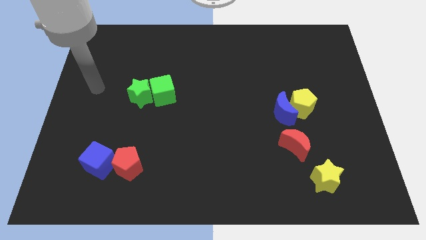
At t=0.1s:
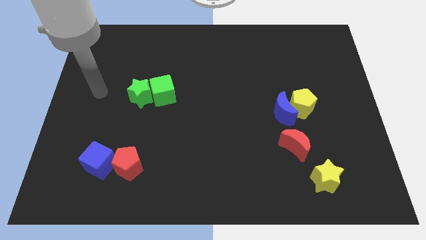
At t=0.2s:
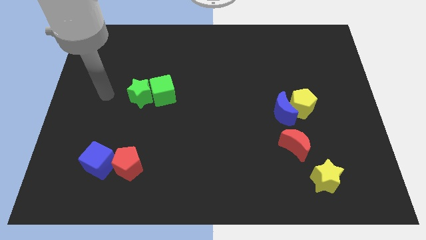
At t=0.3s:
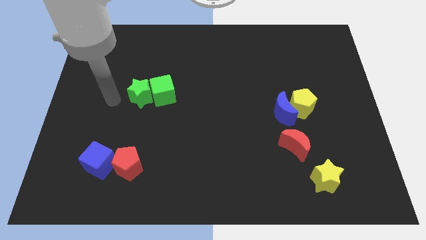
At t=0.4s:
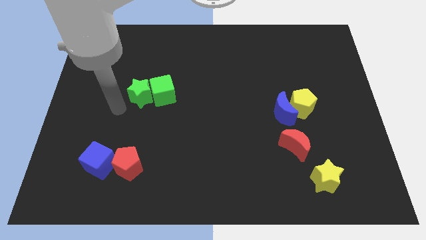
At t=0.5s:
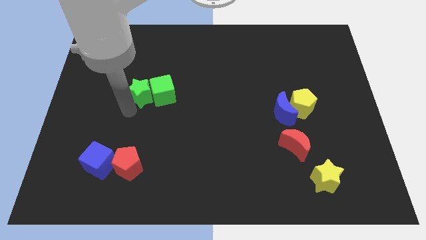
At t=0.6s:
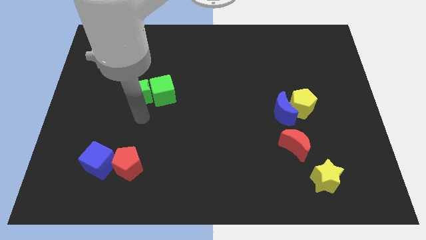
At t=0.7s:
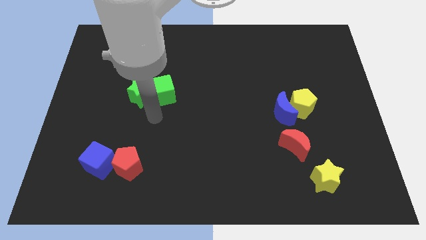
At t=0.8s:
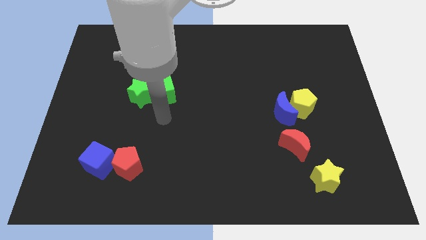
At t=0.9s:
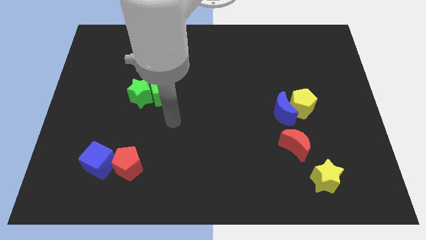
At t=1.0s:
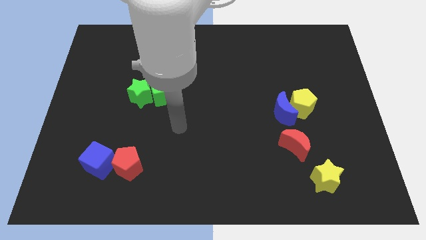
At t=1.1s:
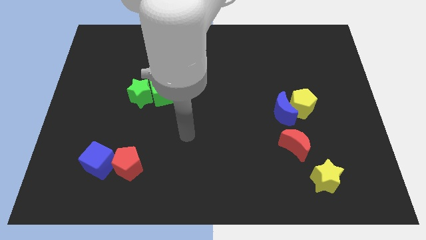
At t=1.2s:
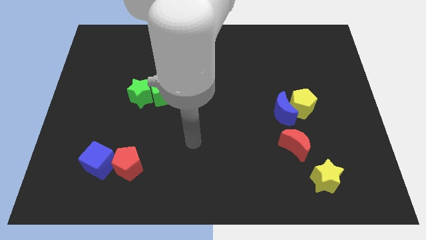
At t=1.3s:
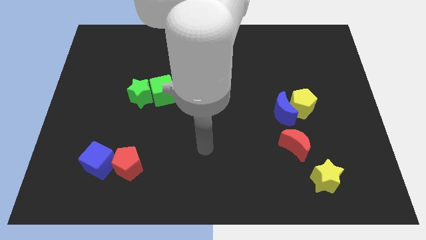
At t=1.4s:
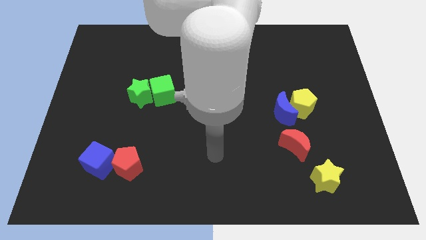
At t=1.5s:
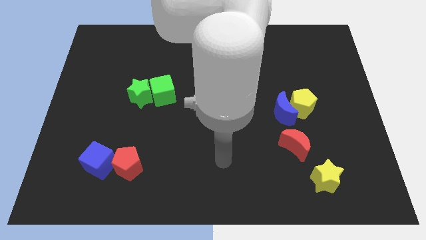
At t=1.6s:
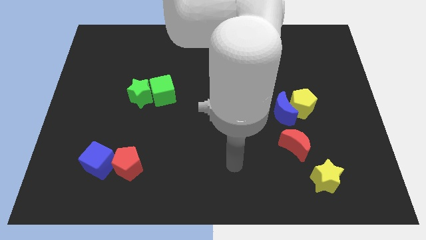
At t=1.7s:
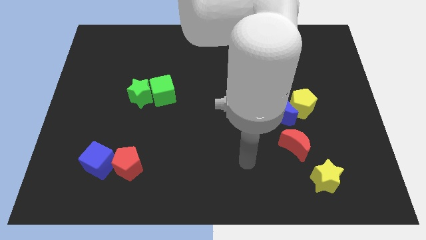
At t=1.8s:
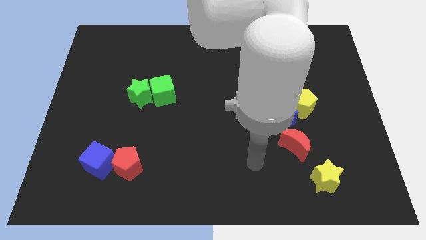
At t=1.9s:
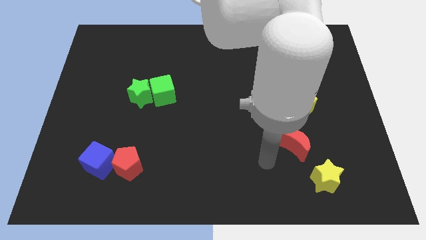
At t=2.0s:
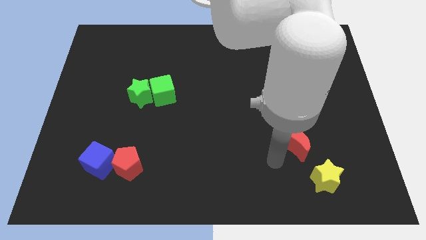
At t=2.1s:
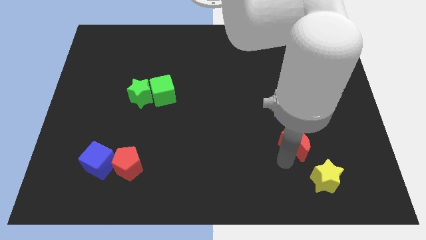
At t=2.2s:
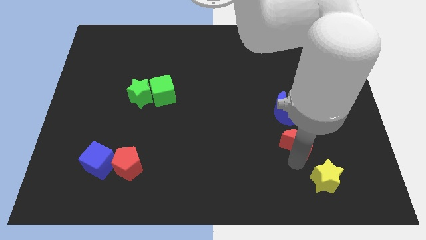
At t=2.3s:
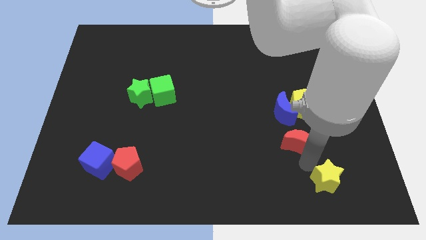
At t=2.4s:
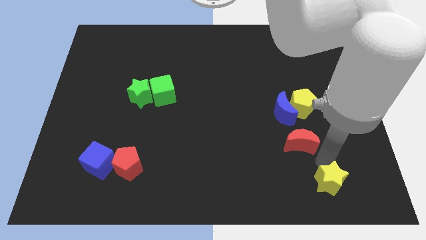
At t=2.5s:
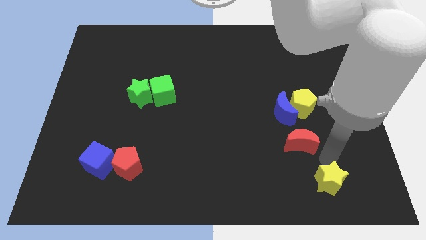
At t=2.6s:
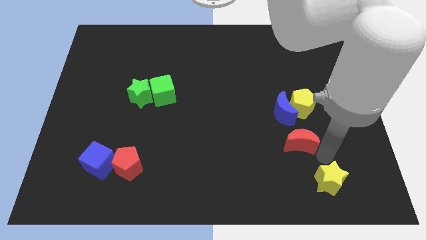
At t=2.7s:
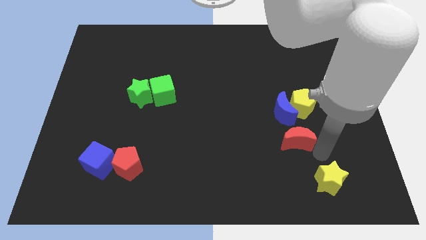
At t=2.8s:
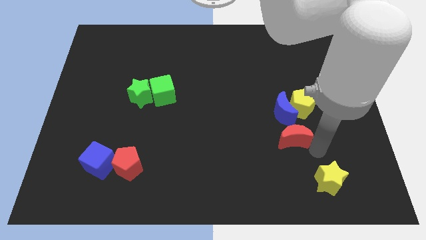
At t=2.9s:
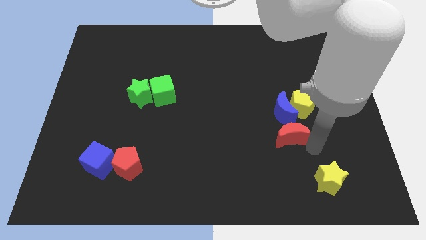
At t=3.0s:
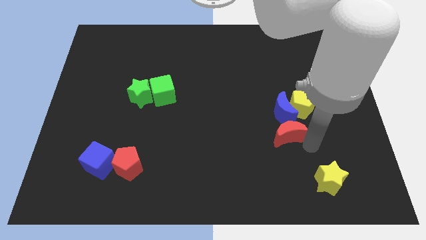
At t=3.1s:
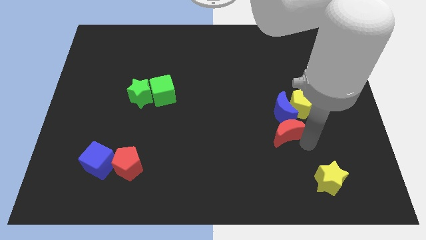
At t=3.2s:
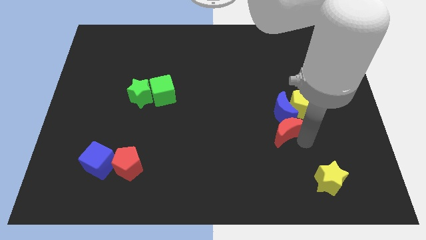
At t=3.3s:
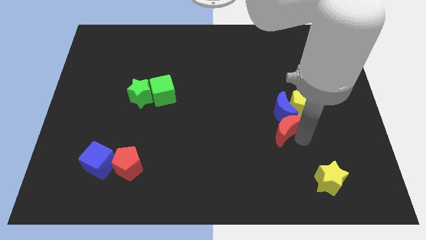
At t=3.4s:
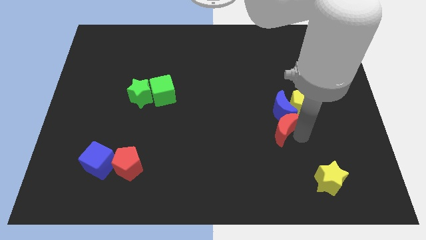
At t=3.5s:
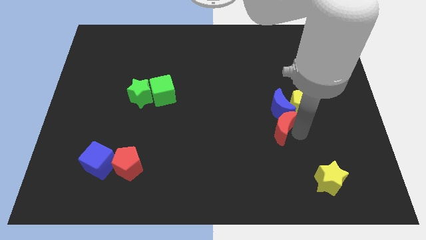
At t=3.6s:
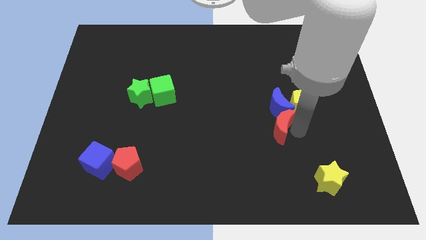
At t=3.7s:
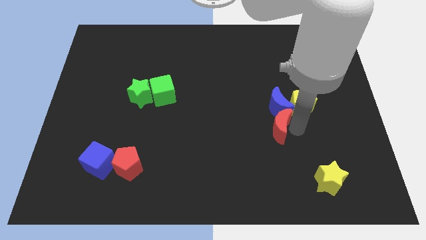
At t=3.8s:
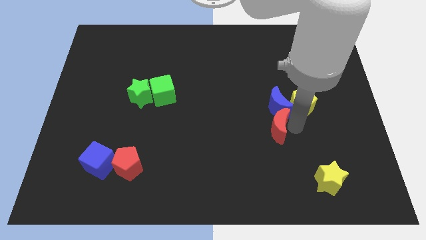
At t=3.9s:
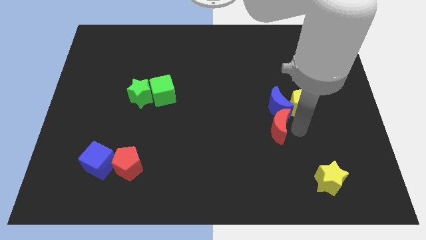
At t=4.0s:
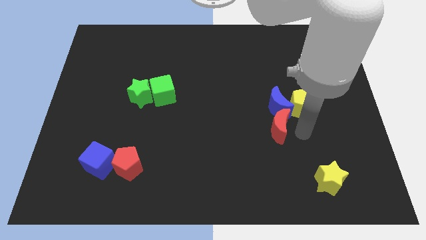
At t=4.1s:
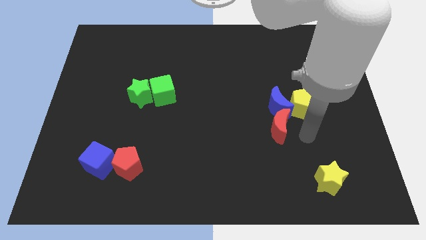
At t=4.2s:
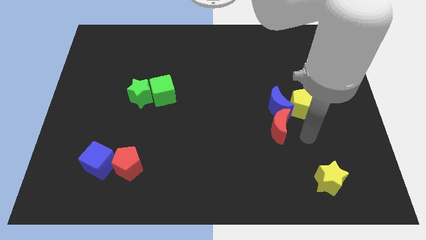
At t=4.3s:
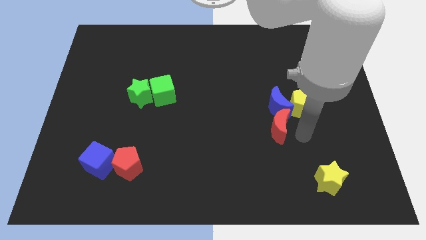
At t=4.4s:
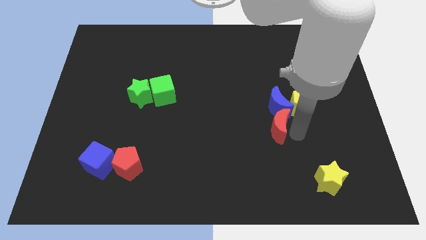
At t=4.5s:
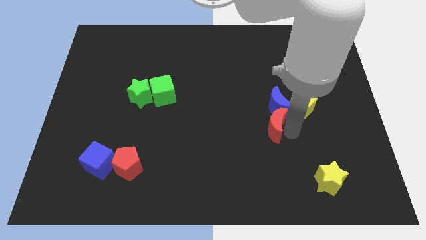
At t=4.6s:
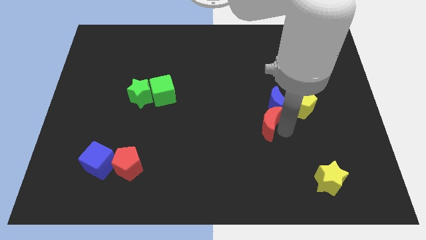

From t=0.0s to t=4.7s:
slightly push the red moon up and to the left diagonally

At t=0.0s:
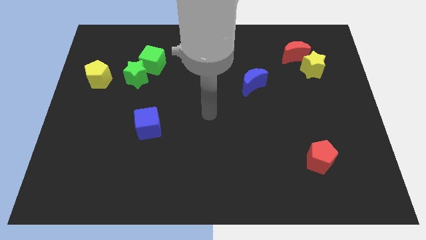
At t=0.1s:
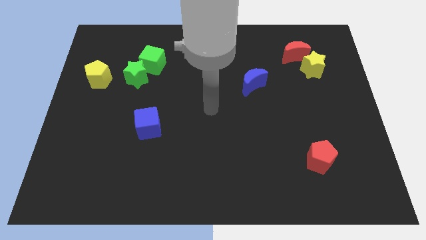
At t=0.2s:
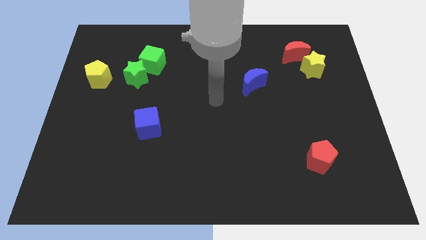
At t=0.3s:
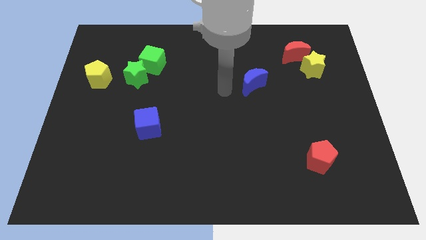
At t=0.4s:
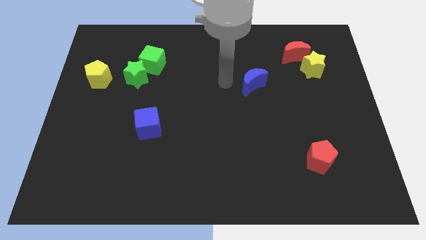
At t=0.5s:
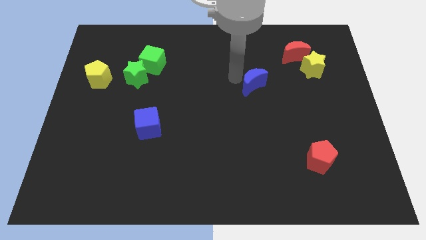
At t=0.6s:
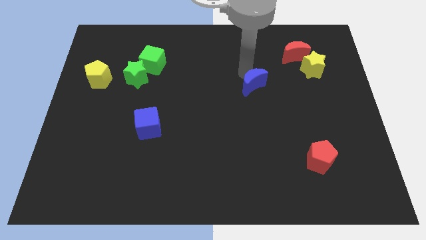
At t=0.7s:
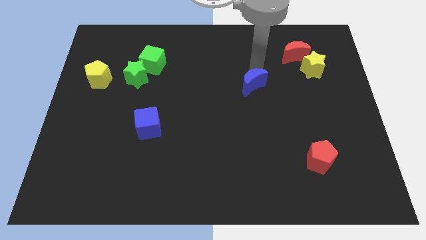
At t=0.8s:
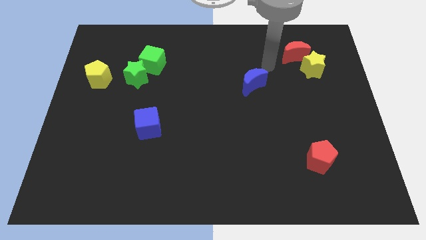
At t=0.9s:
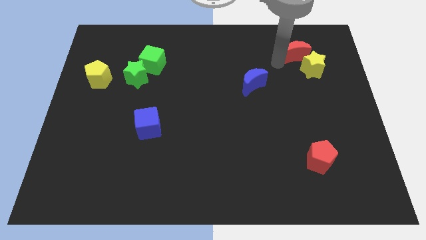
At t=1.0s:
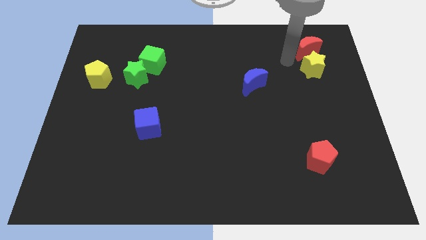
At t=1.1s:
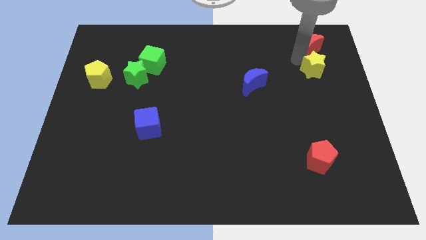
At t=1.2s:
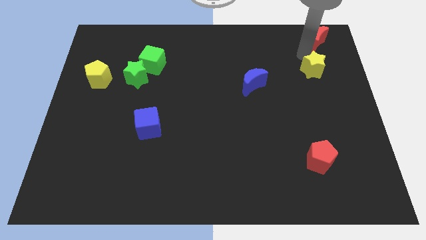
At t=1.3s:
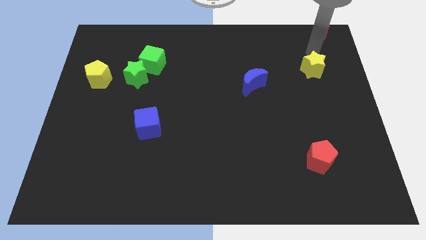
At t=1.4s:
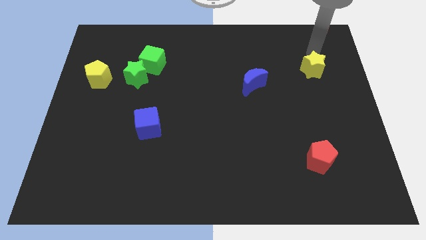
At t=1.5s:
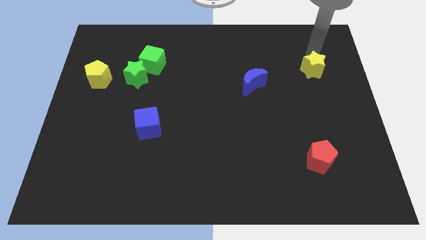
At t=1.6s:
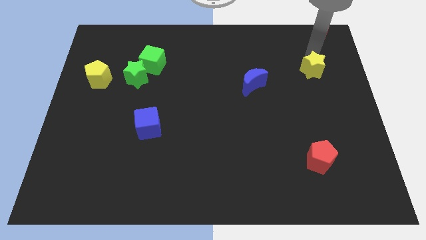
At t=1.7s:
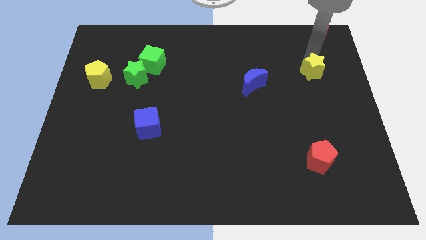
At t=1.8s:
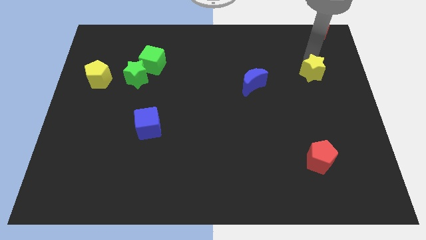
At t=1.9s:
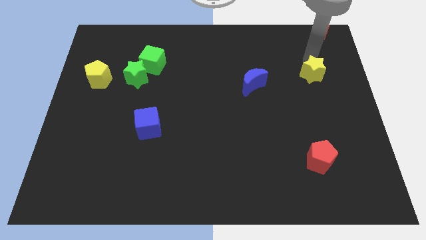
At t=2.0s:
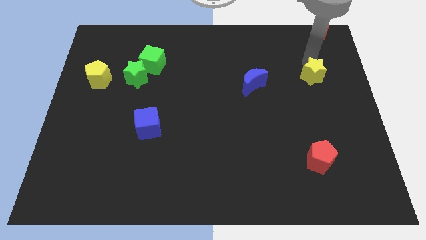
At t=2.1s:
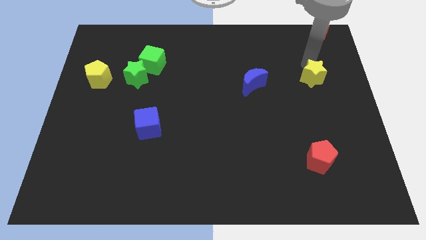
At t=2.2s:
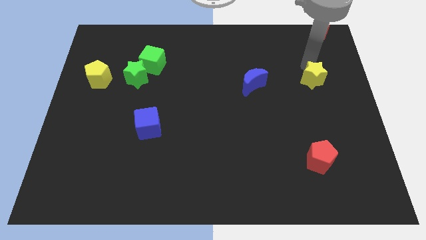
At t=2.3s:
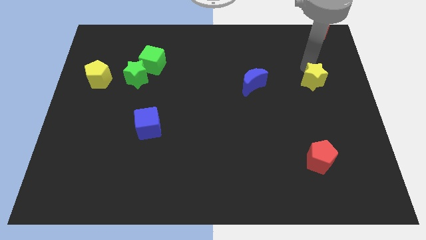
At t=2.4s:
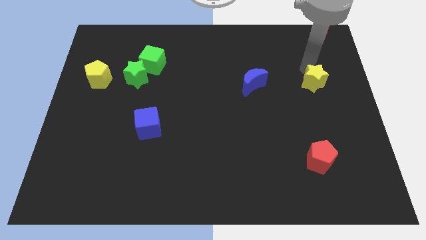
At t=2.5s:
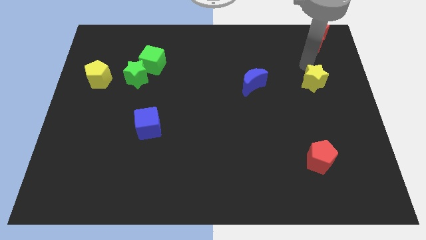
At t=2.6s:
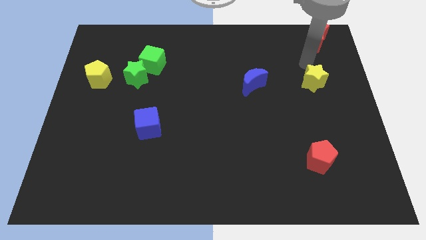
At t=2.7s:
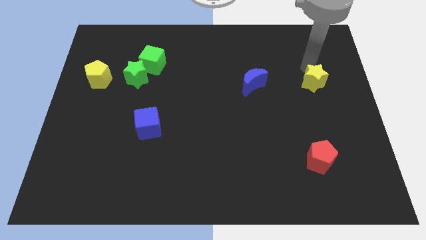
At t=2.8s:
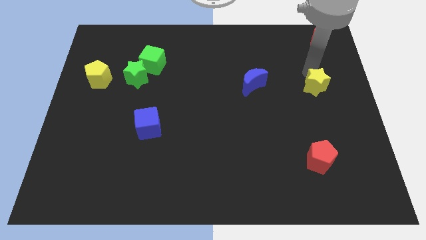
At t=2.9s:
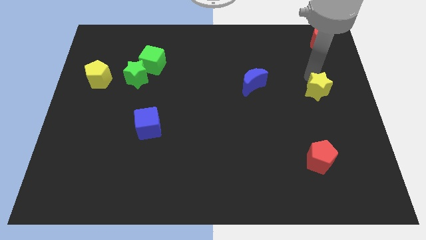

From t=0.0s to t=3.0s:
slightly move the yellow star down

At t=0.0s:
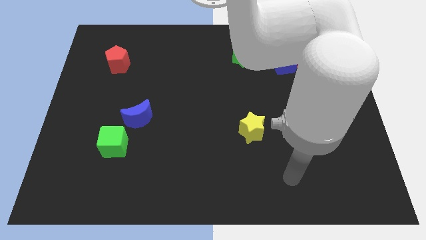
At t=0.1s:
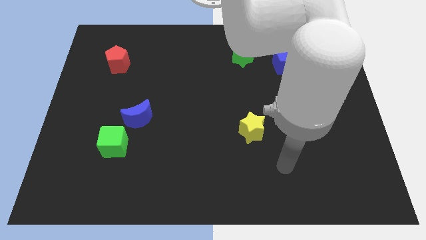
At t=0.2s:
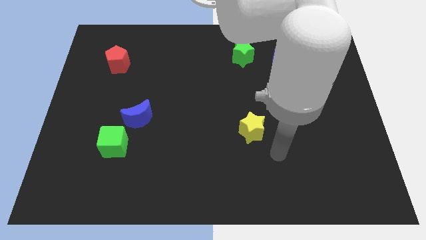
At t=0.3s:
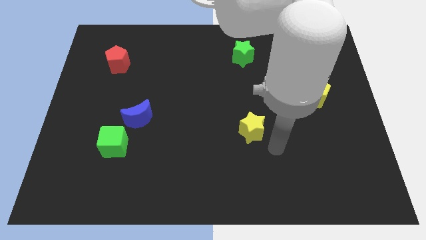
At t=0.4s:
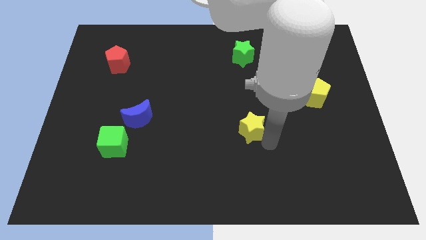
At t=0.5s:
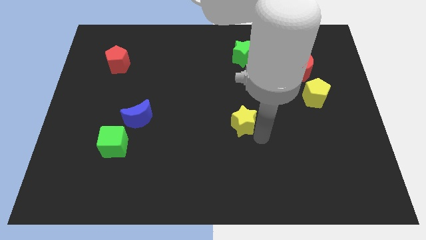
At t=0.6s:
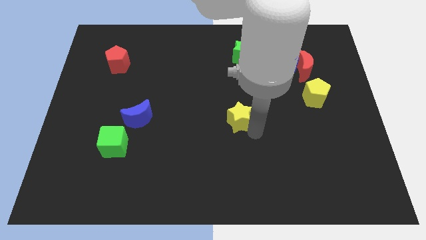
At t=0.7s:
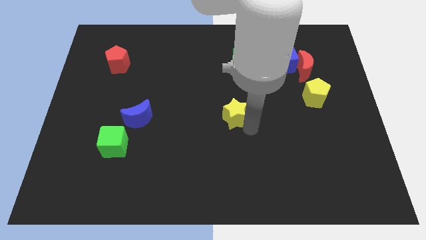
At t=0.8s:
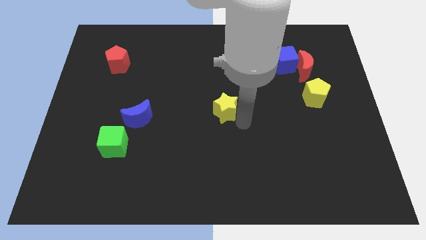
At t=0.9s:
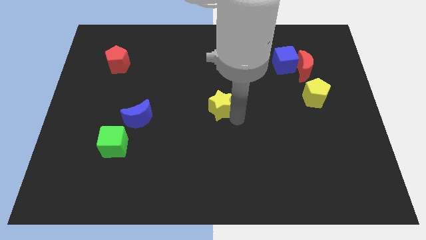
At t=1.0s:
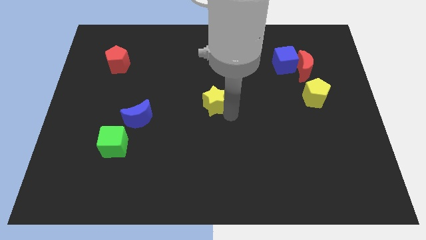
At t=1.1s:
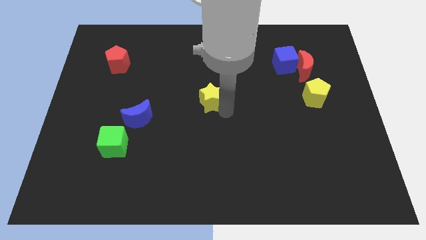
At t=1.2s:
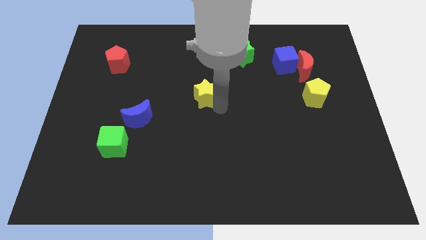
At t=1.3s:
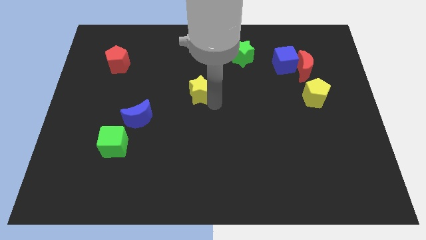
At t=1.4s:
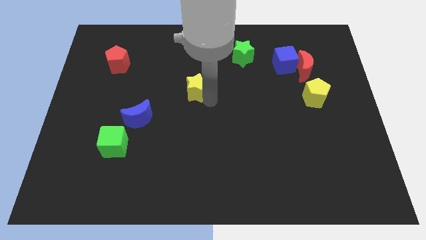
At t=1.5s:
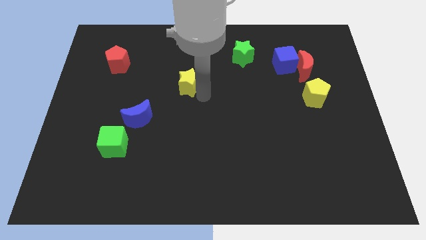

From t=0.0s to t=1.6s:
slide the yellow star upwards and to the left diagonally
